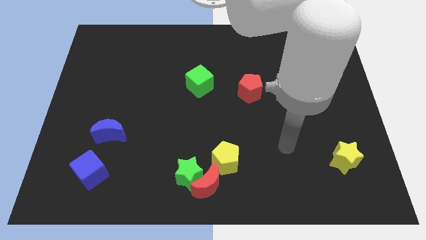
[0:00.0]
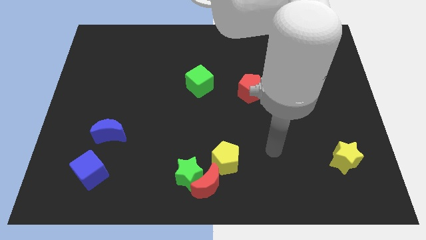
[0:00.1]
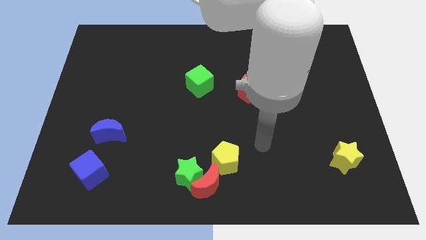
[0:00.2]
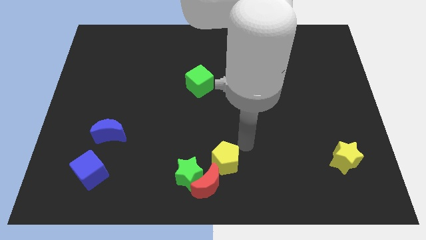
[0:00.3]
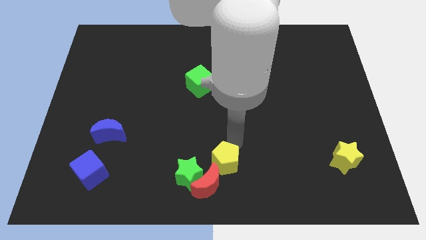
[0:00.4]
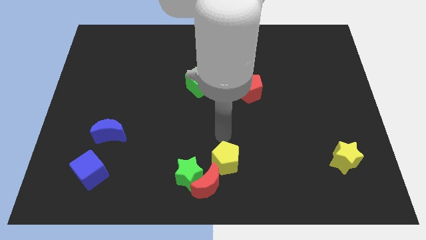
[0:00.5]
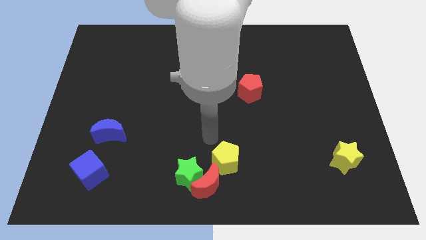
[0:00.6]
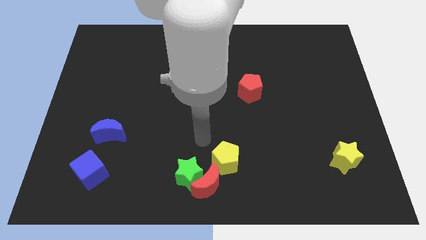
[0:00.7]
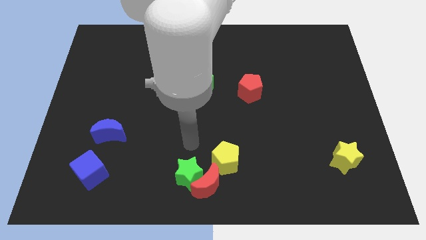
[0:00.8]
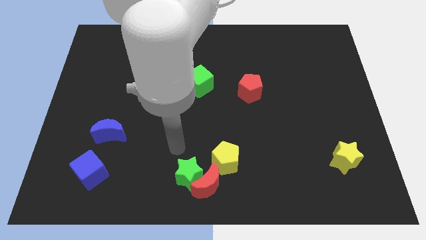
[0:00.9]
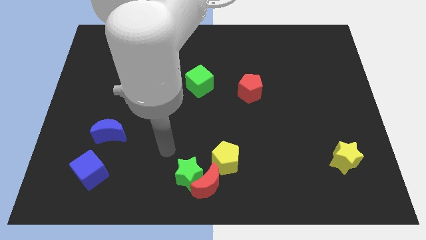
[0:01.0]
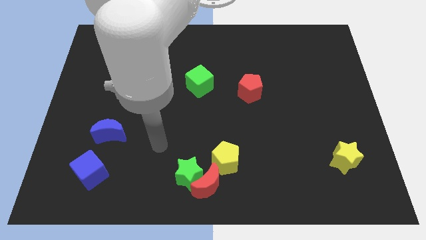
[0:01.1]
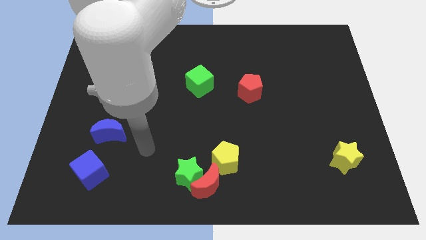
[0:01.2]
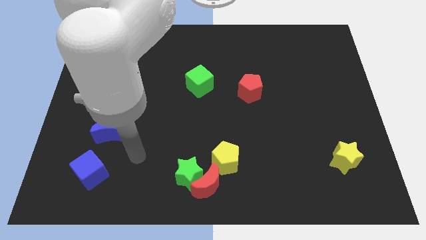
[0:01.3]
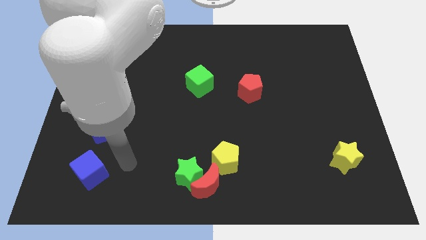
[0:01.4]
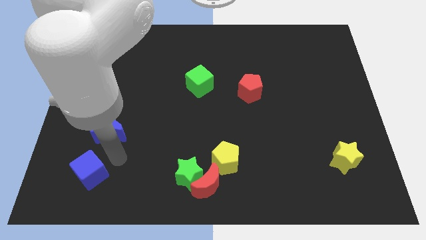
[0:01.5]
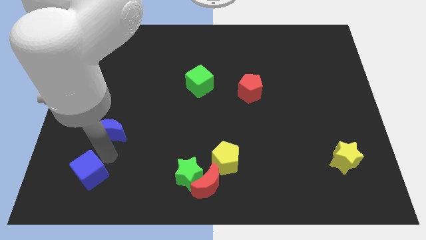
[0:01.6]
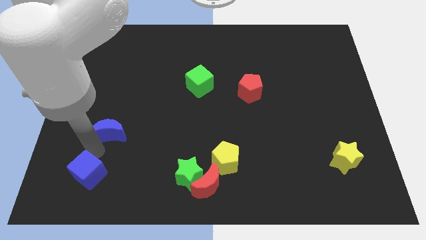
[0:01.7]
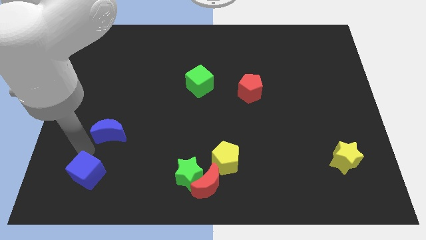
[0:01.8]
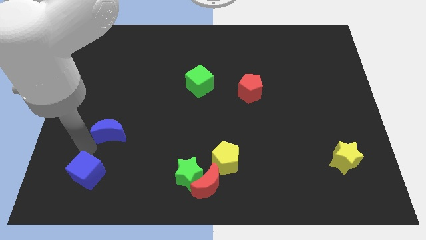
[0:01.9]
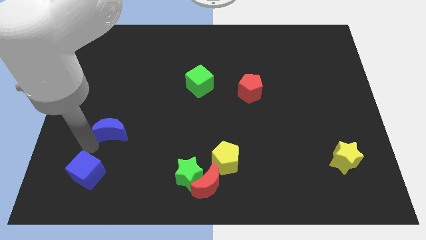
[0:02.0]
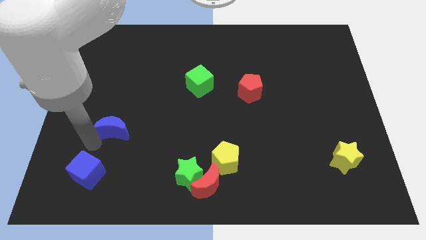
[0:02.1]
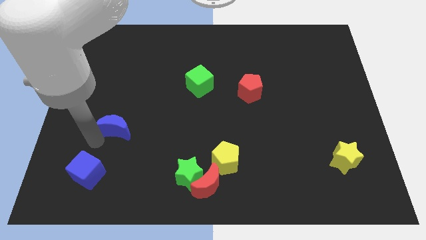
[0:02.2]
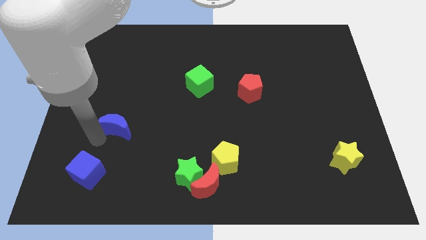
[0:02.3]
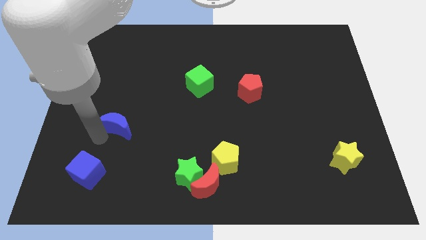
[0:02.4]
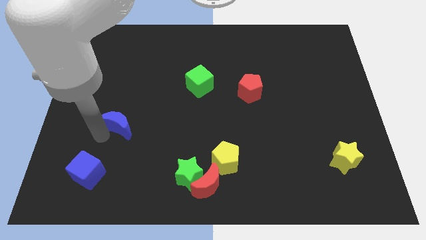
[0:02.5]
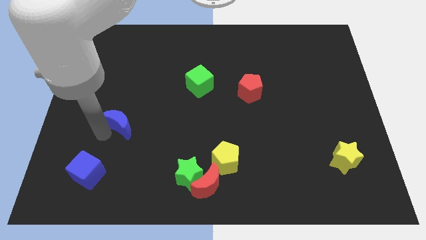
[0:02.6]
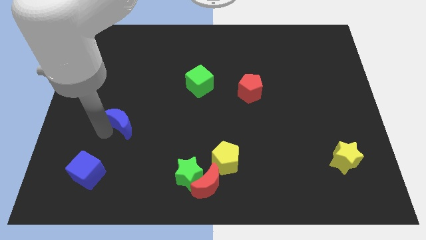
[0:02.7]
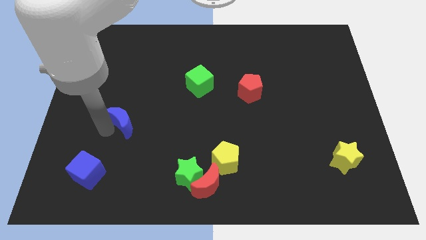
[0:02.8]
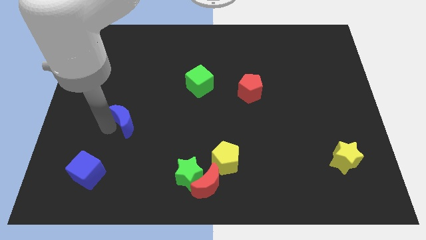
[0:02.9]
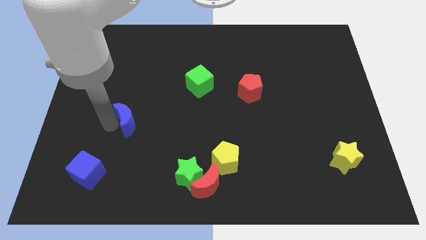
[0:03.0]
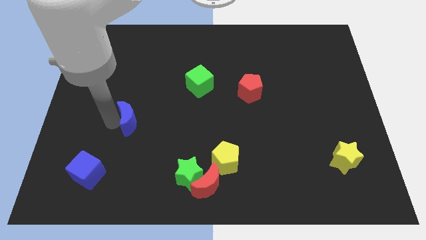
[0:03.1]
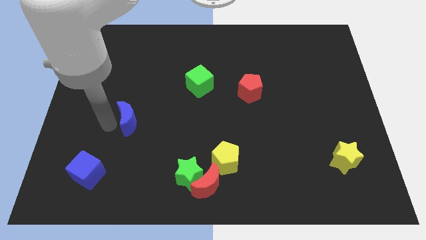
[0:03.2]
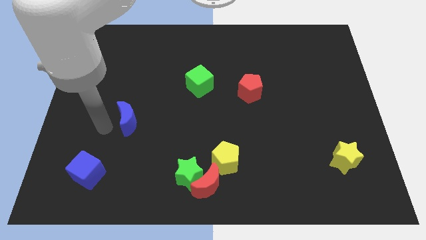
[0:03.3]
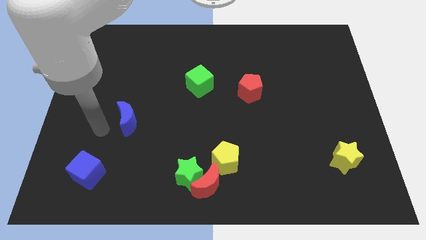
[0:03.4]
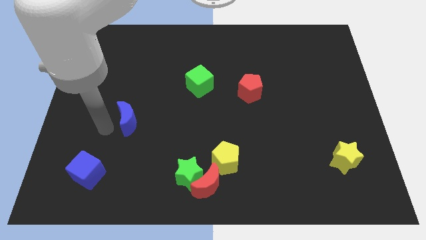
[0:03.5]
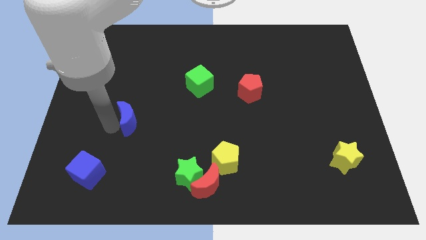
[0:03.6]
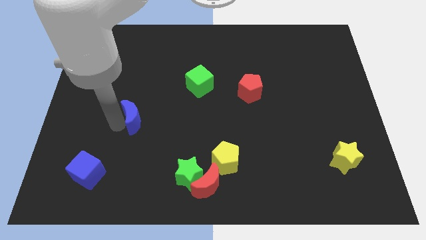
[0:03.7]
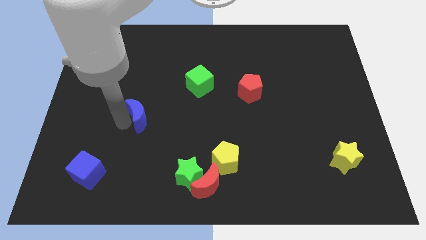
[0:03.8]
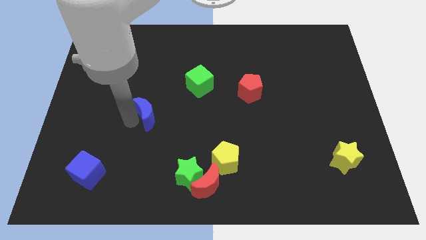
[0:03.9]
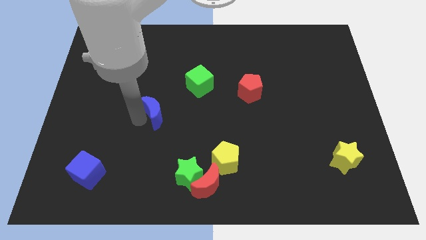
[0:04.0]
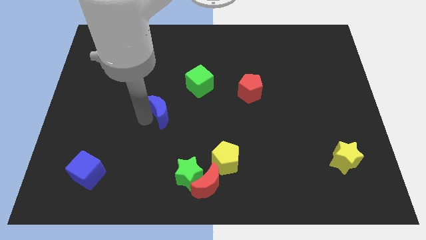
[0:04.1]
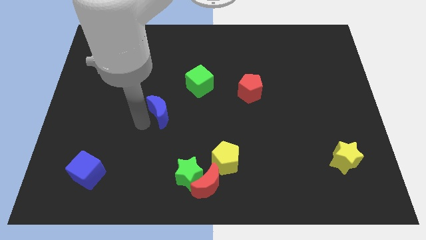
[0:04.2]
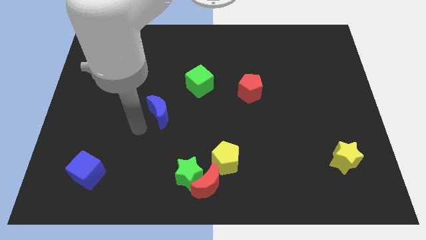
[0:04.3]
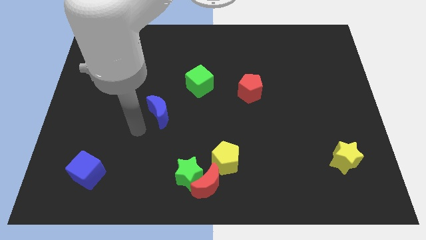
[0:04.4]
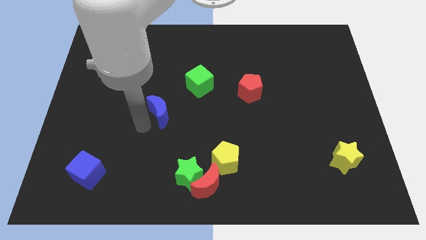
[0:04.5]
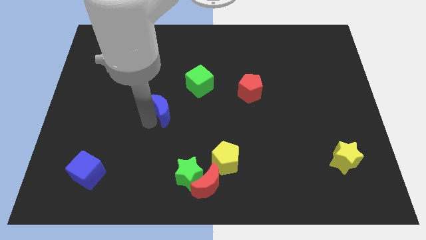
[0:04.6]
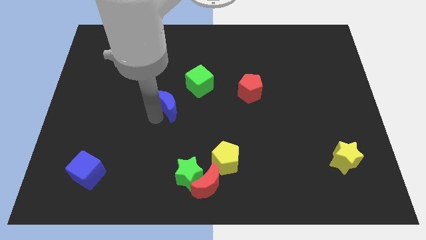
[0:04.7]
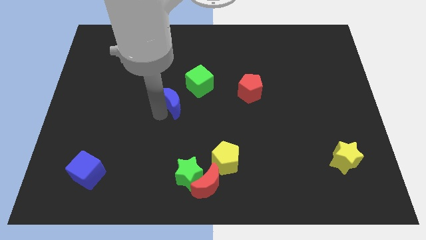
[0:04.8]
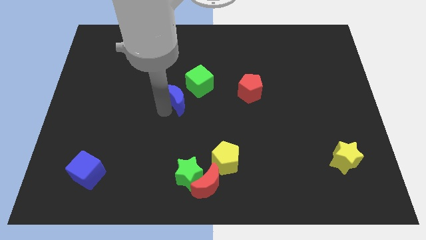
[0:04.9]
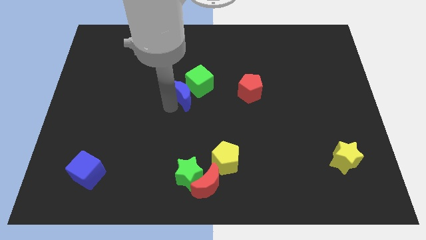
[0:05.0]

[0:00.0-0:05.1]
push the blue moon towards the green cube

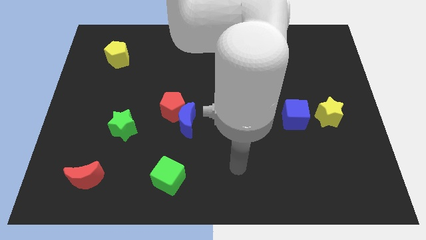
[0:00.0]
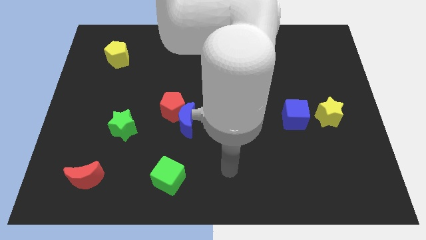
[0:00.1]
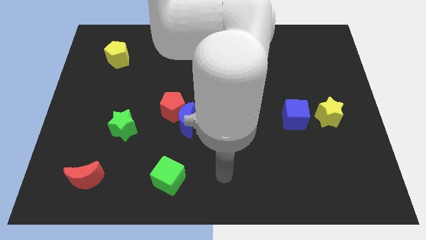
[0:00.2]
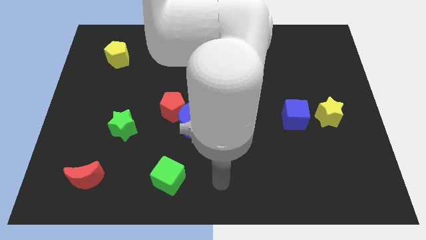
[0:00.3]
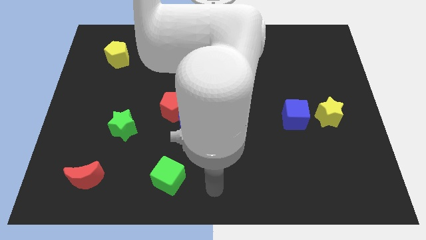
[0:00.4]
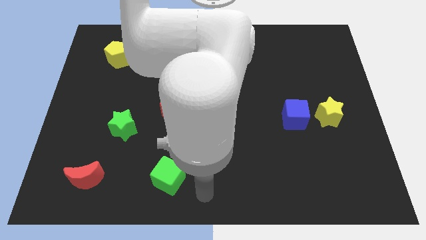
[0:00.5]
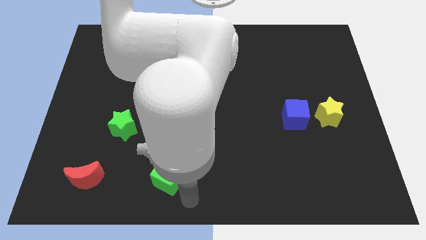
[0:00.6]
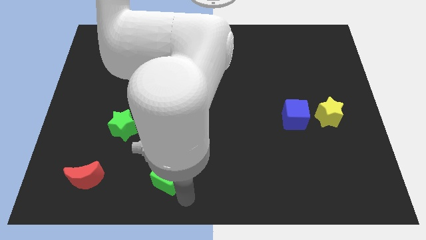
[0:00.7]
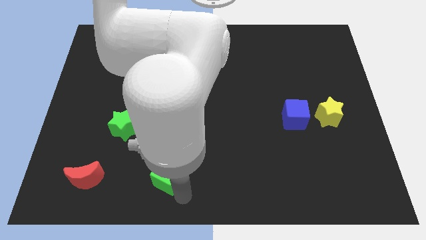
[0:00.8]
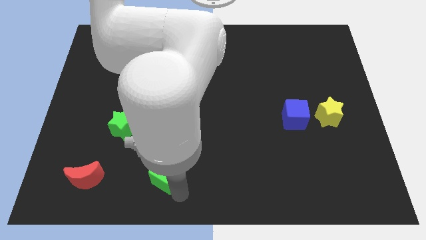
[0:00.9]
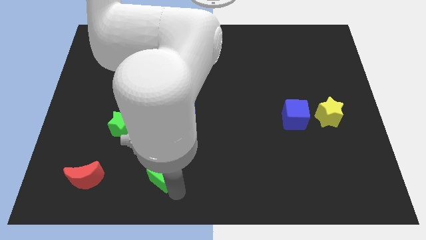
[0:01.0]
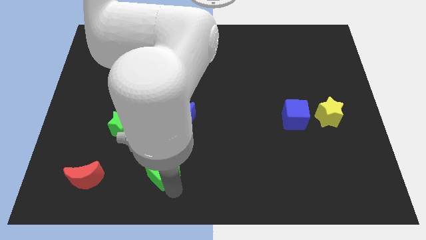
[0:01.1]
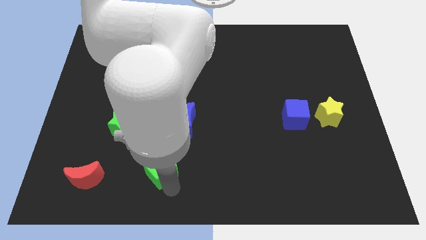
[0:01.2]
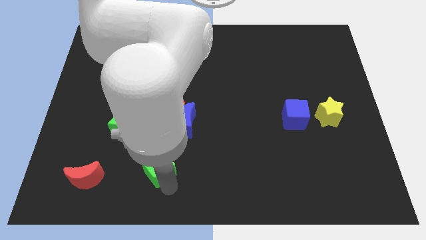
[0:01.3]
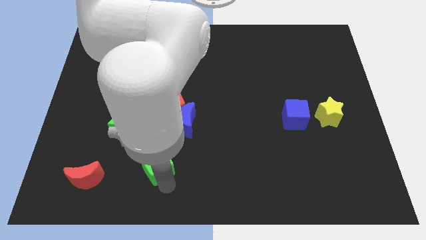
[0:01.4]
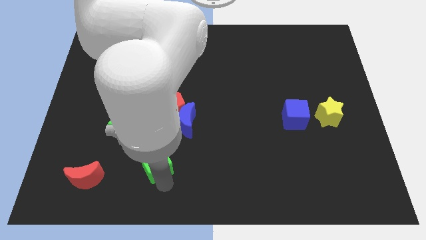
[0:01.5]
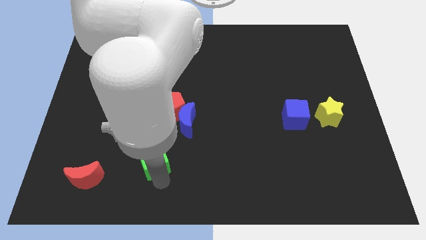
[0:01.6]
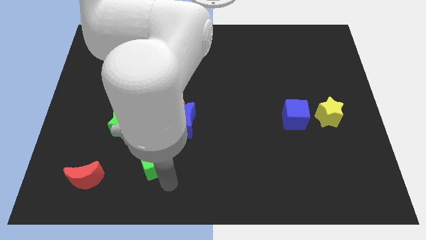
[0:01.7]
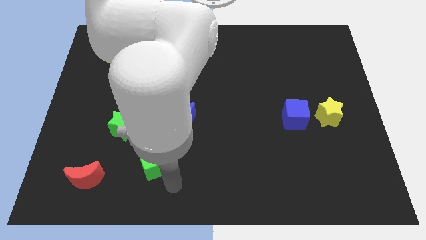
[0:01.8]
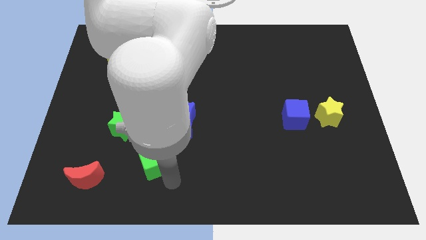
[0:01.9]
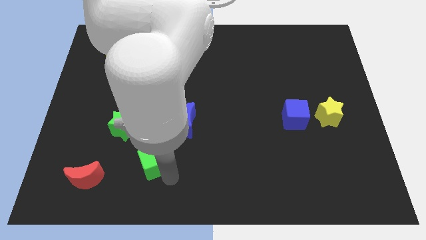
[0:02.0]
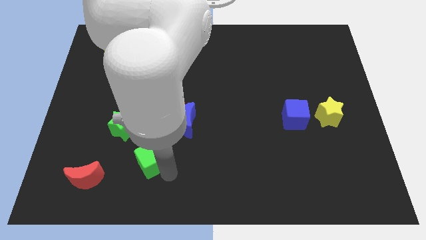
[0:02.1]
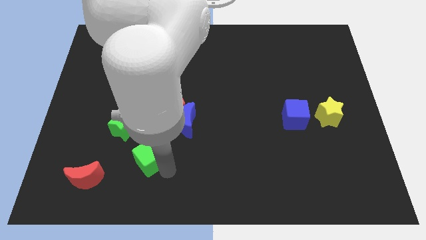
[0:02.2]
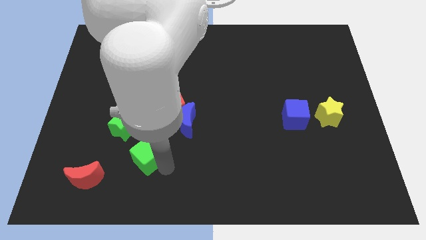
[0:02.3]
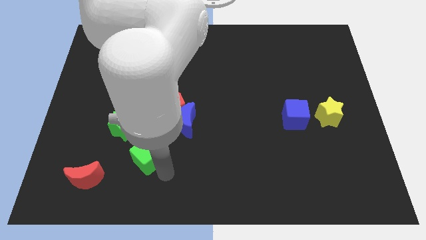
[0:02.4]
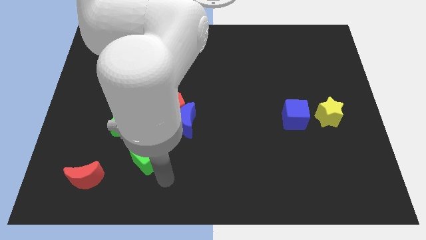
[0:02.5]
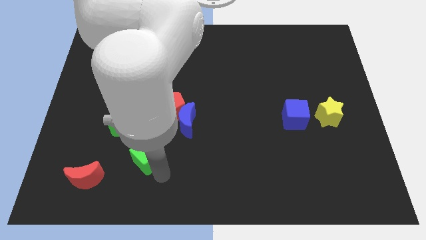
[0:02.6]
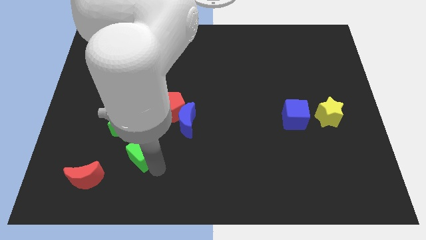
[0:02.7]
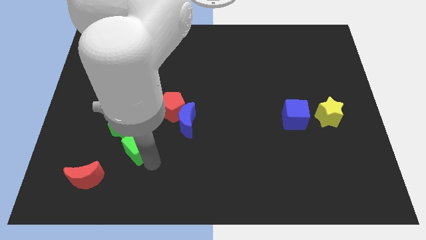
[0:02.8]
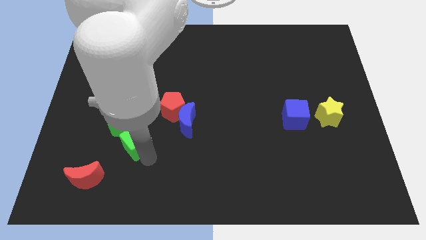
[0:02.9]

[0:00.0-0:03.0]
push the green cube to the green star
